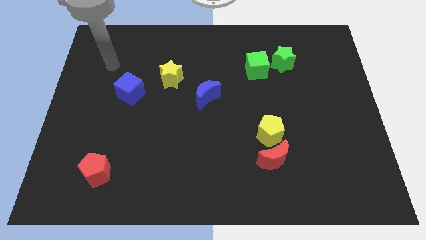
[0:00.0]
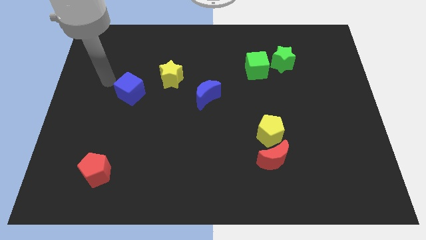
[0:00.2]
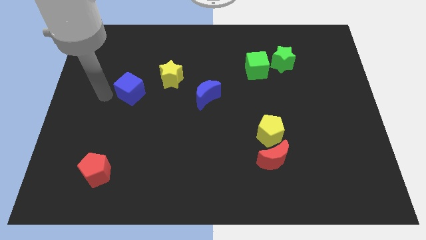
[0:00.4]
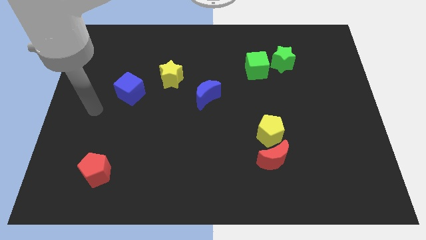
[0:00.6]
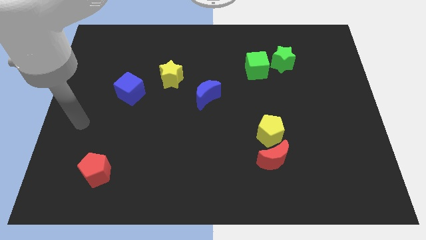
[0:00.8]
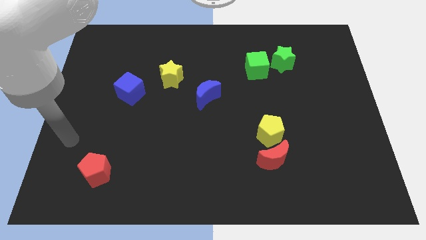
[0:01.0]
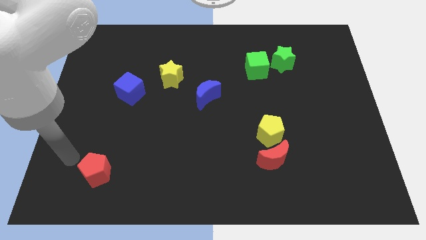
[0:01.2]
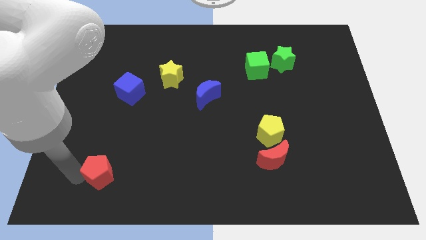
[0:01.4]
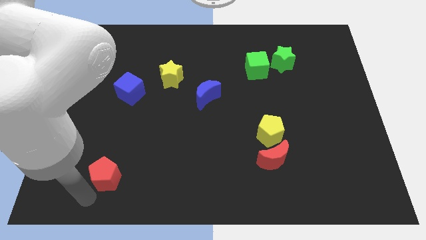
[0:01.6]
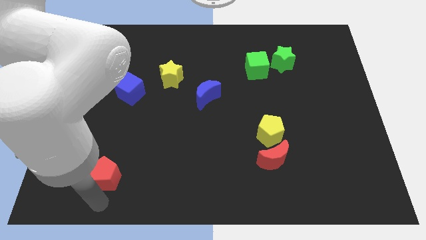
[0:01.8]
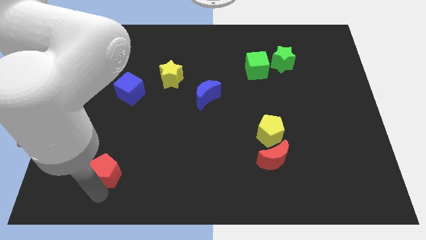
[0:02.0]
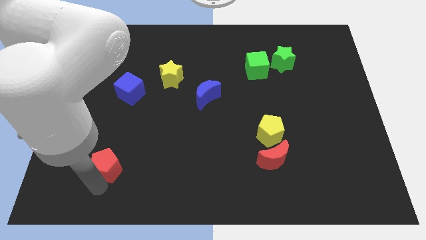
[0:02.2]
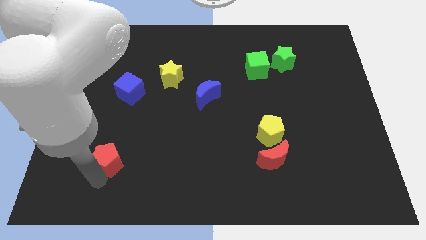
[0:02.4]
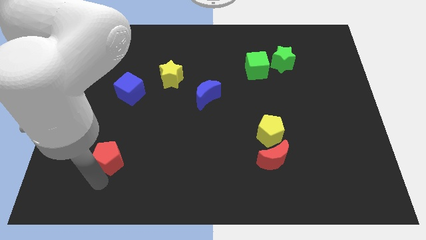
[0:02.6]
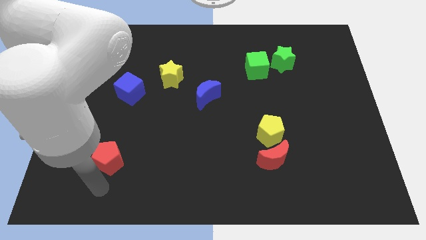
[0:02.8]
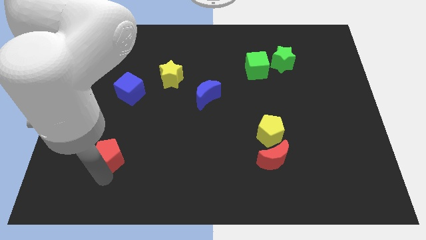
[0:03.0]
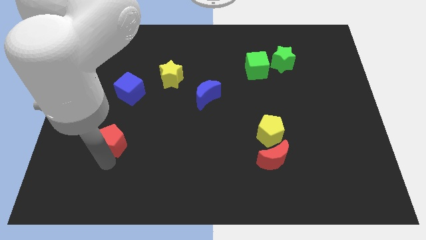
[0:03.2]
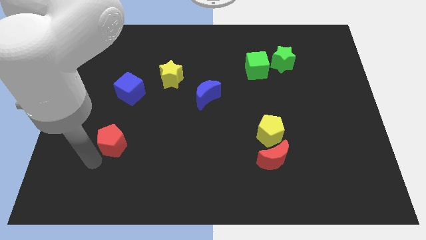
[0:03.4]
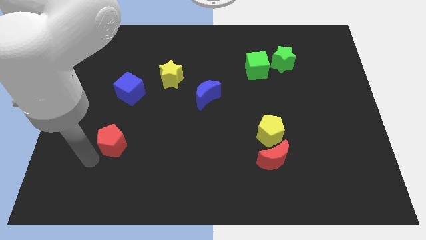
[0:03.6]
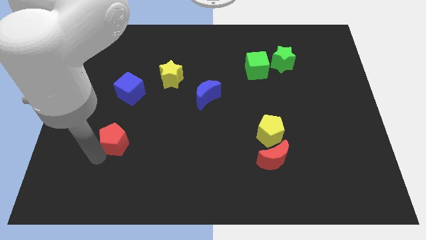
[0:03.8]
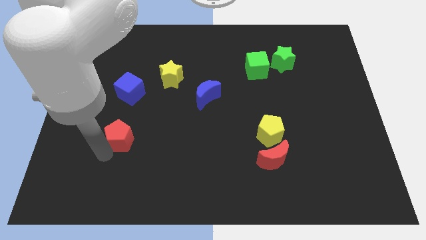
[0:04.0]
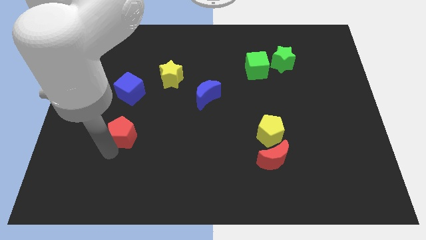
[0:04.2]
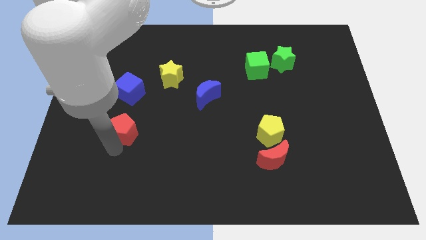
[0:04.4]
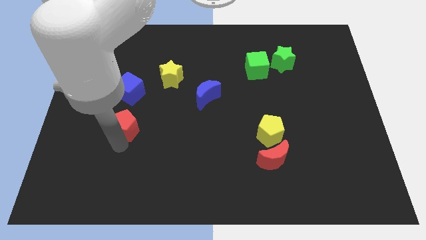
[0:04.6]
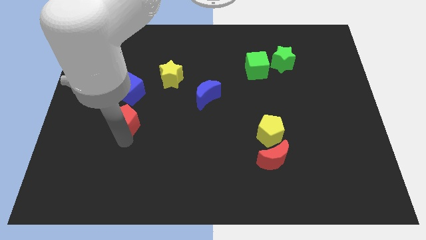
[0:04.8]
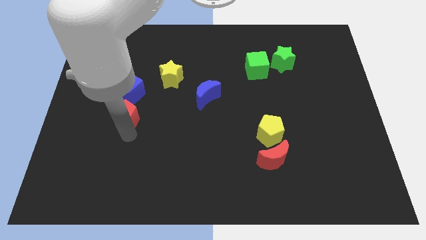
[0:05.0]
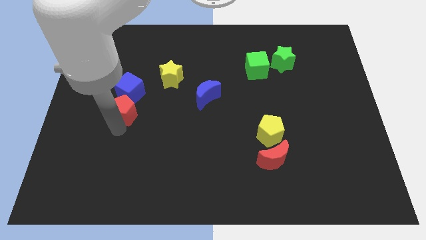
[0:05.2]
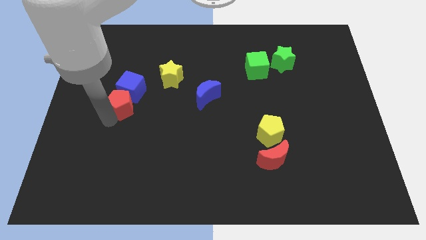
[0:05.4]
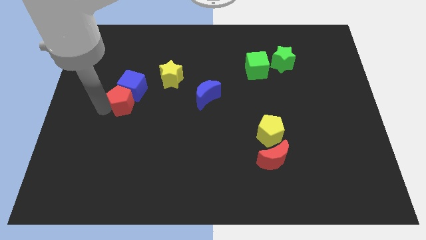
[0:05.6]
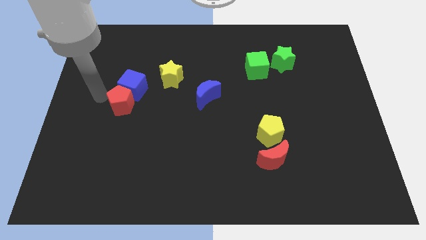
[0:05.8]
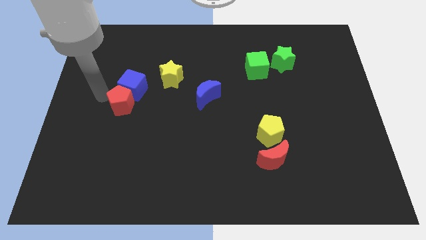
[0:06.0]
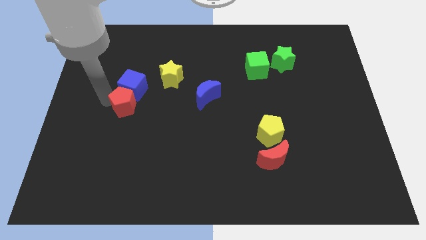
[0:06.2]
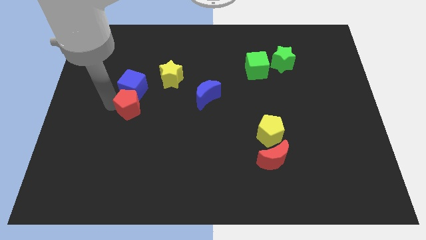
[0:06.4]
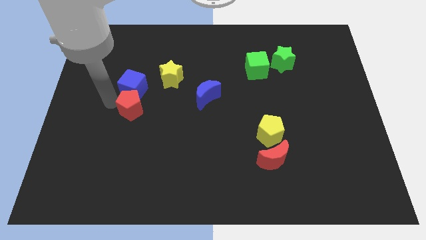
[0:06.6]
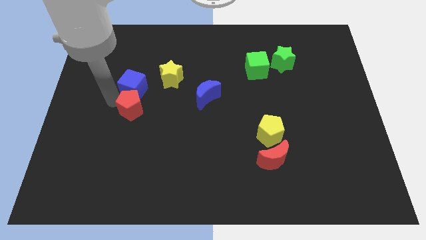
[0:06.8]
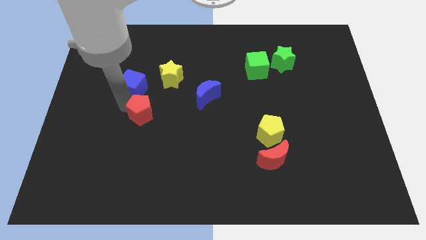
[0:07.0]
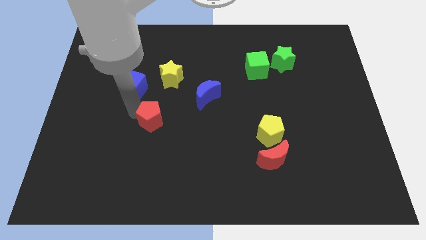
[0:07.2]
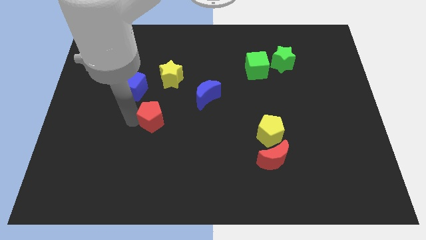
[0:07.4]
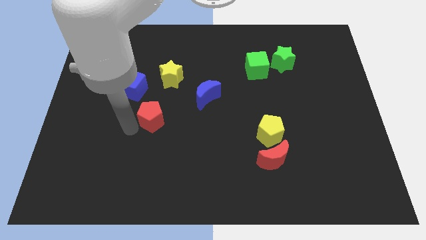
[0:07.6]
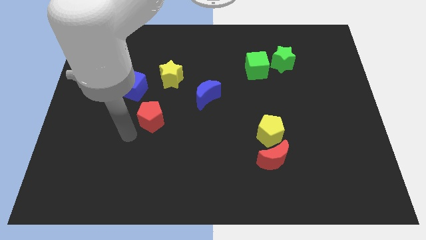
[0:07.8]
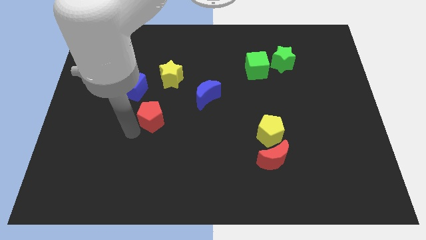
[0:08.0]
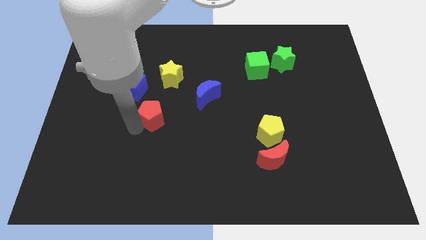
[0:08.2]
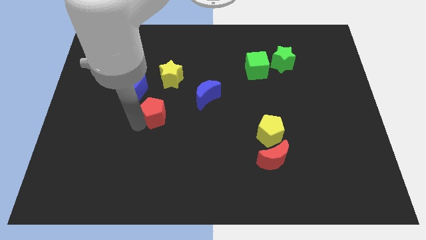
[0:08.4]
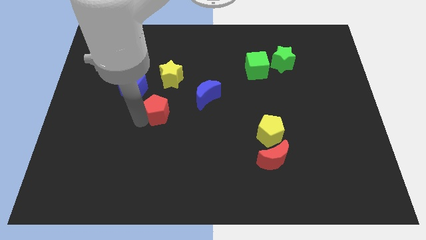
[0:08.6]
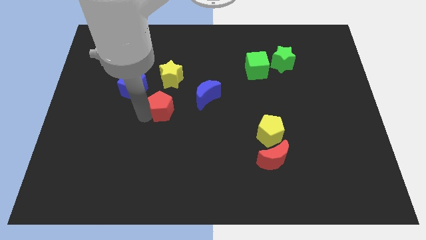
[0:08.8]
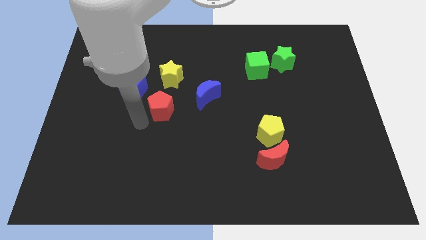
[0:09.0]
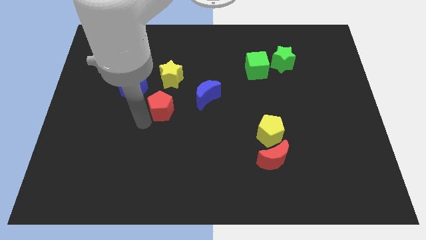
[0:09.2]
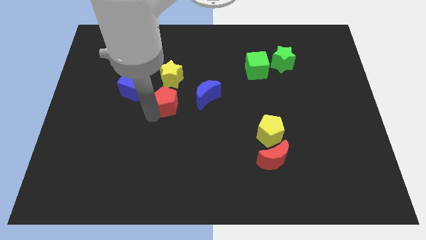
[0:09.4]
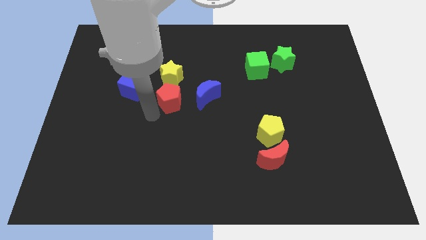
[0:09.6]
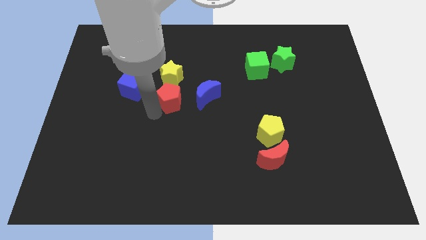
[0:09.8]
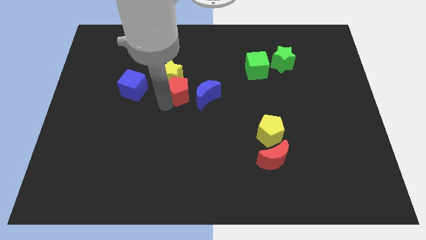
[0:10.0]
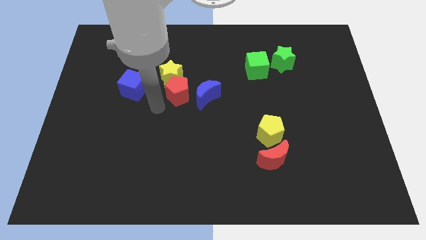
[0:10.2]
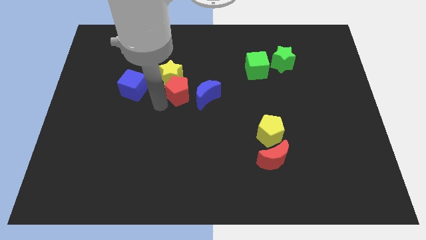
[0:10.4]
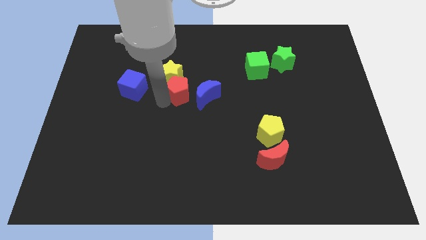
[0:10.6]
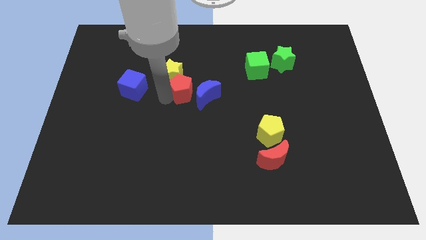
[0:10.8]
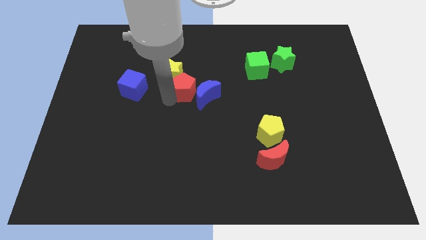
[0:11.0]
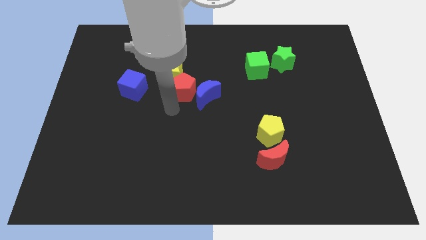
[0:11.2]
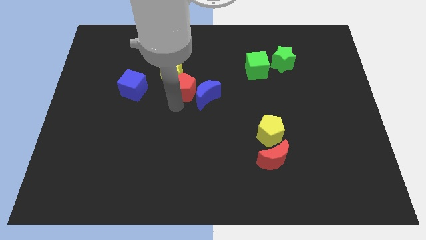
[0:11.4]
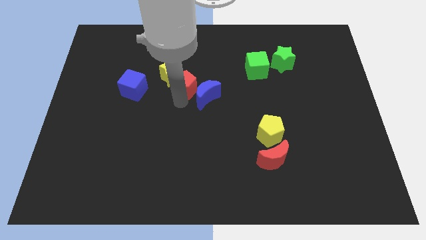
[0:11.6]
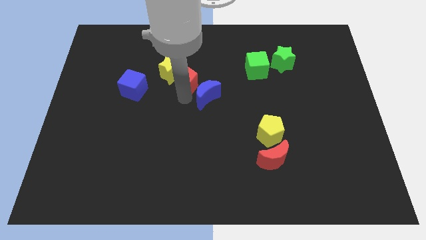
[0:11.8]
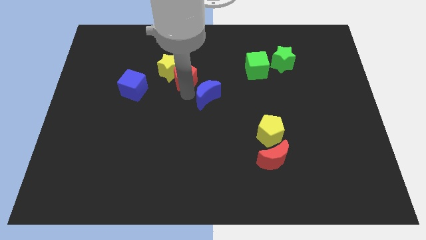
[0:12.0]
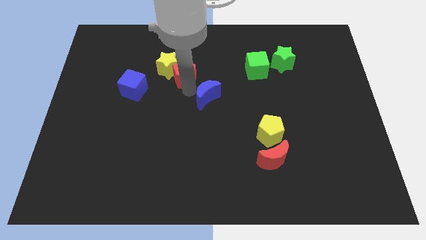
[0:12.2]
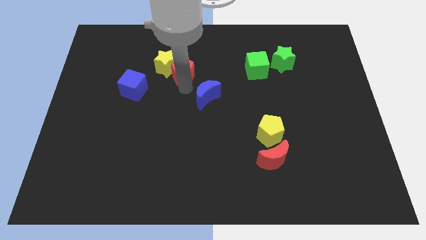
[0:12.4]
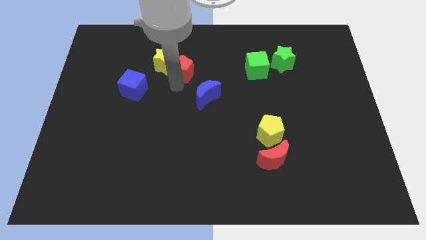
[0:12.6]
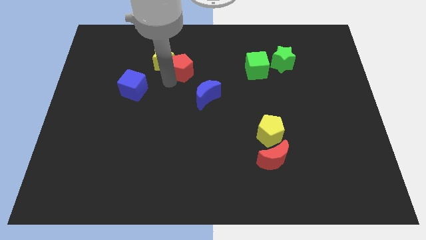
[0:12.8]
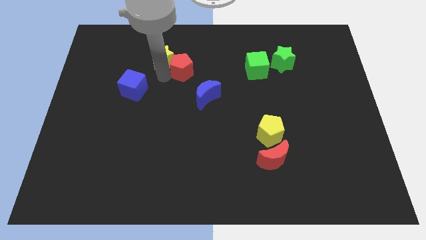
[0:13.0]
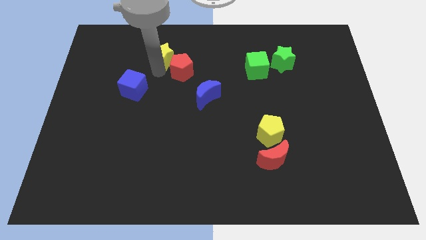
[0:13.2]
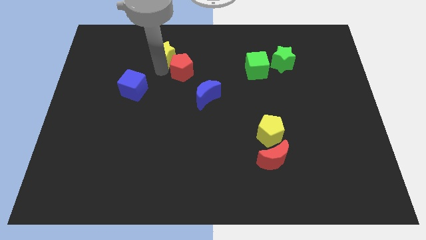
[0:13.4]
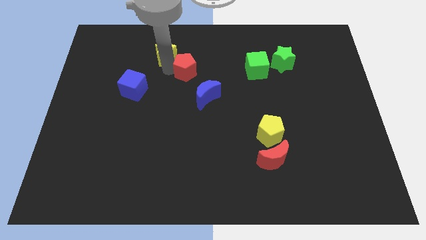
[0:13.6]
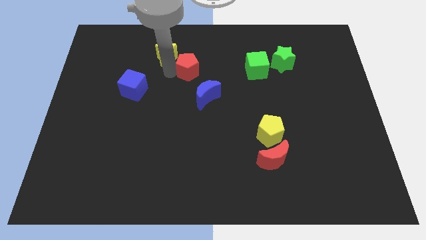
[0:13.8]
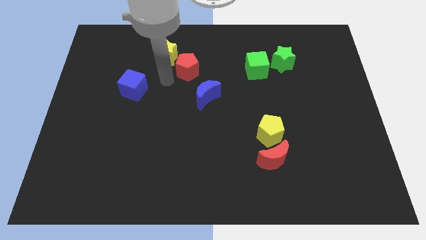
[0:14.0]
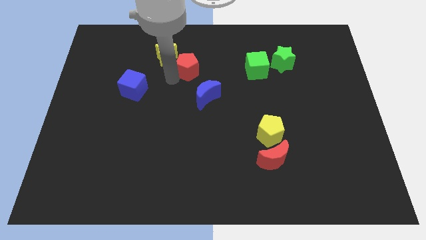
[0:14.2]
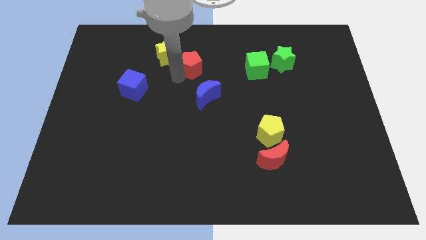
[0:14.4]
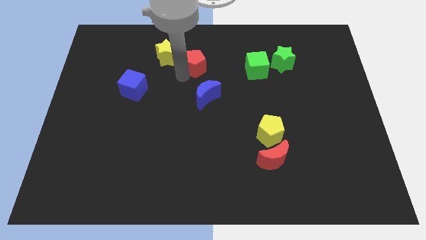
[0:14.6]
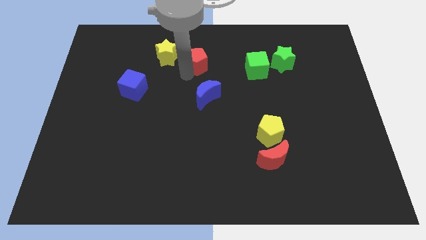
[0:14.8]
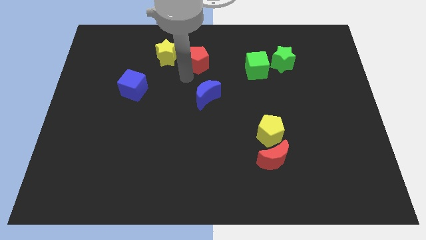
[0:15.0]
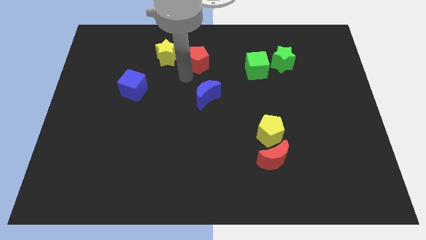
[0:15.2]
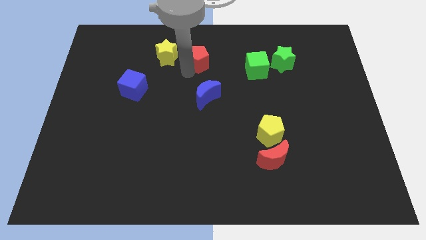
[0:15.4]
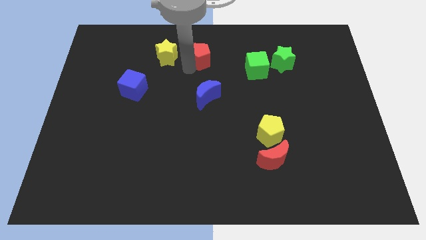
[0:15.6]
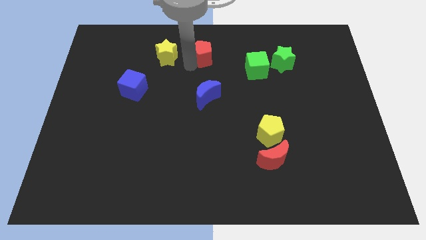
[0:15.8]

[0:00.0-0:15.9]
put the red pentagon to the towards your base
